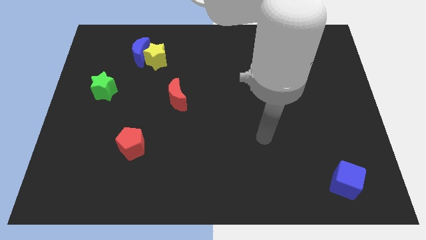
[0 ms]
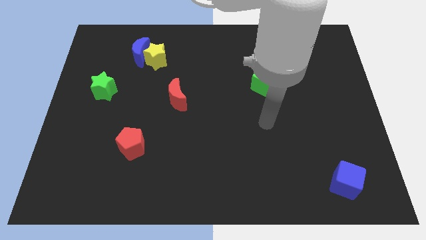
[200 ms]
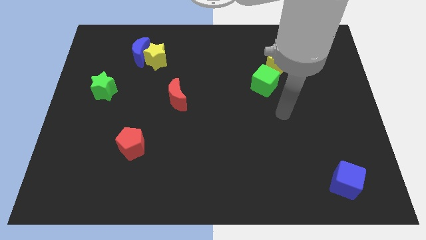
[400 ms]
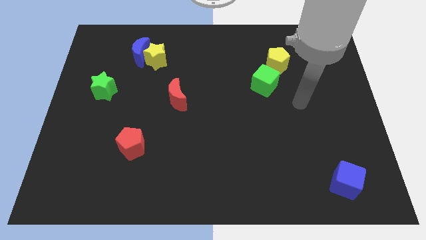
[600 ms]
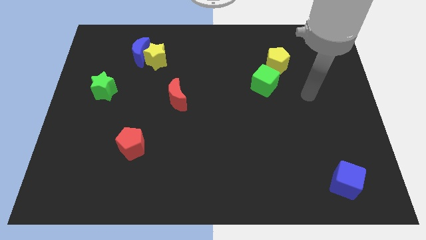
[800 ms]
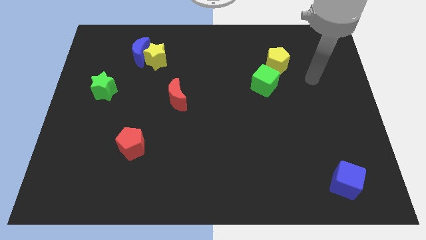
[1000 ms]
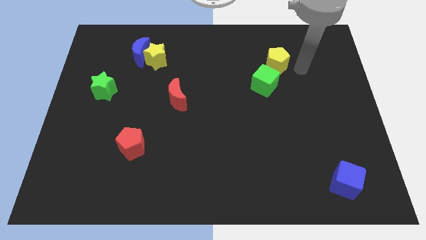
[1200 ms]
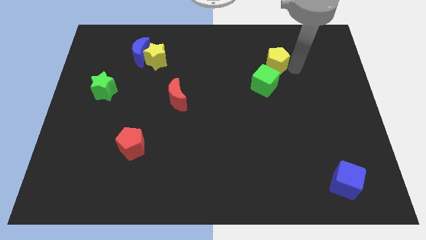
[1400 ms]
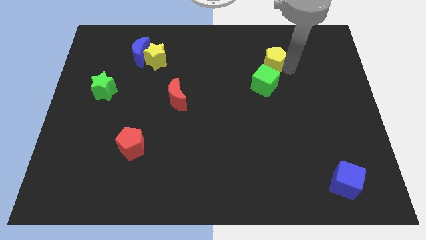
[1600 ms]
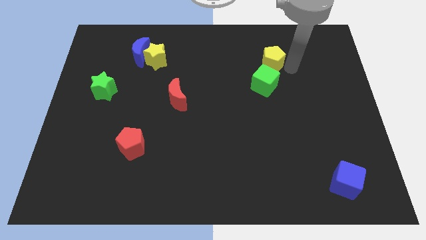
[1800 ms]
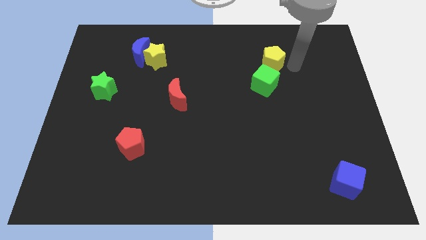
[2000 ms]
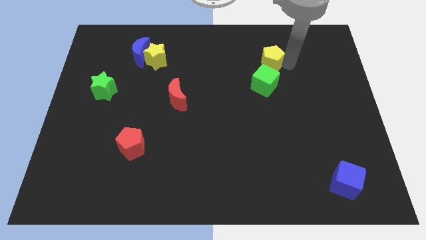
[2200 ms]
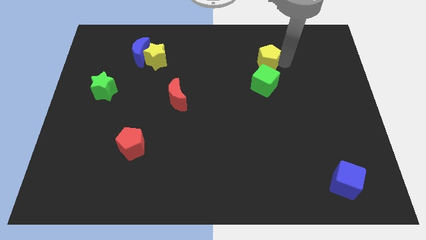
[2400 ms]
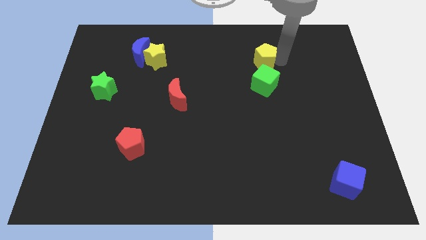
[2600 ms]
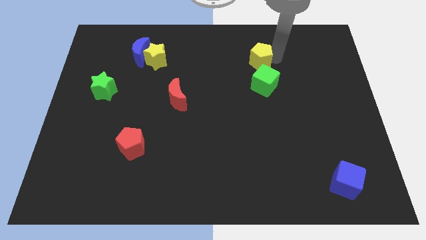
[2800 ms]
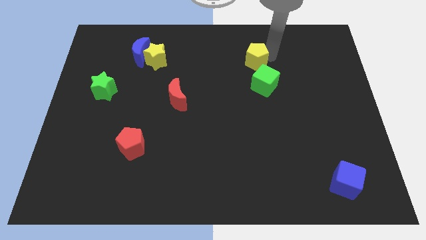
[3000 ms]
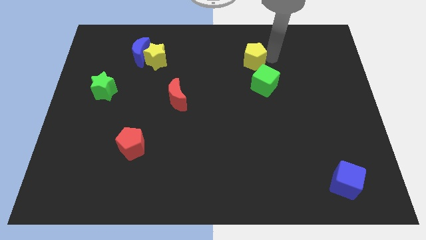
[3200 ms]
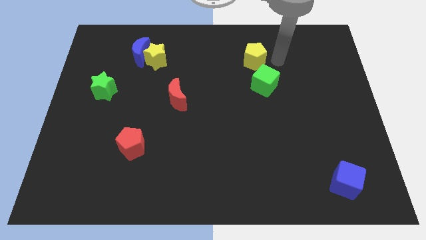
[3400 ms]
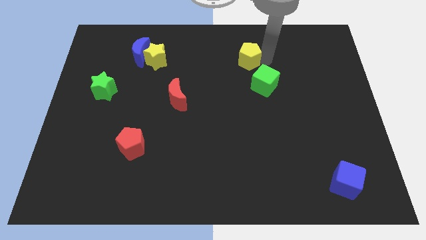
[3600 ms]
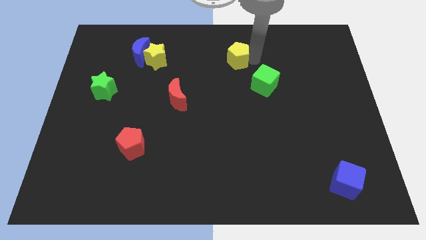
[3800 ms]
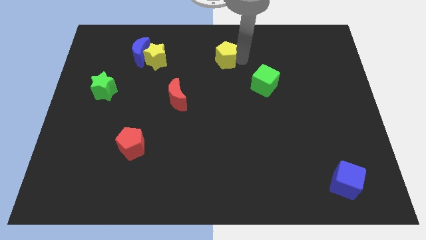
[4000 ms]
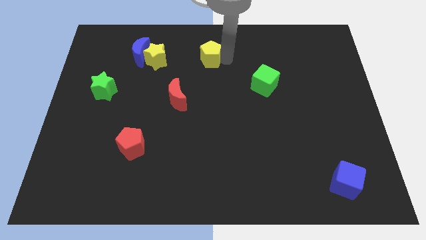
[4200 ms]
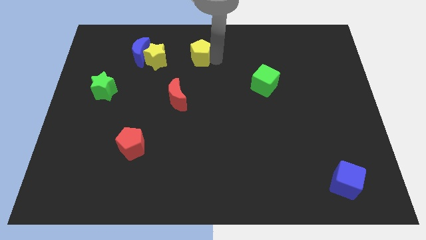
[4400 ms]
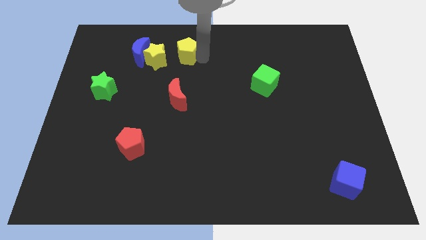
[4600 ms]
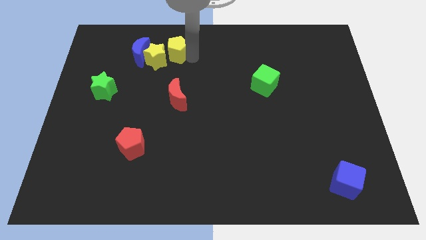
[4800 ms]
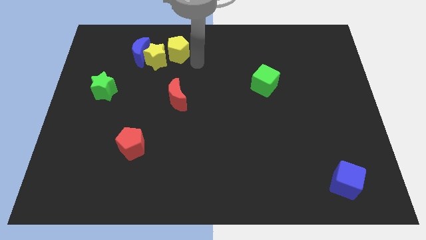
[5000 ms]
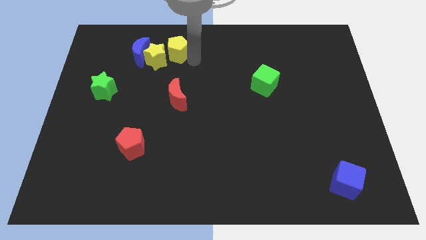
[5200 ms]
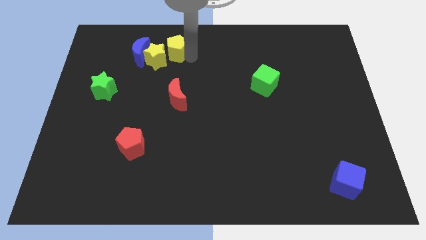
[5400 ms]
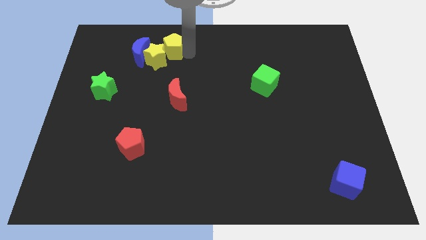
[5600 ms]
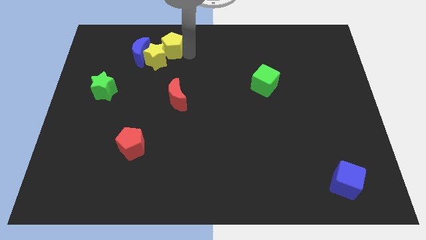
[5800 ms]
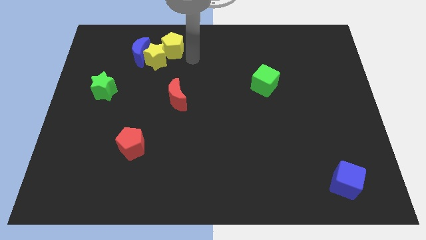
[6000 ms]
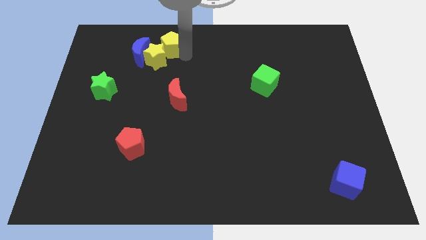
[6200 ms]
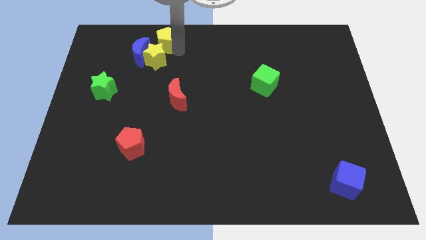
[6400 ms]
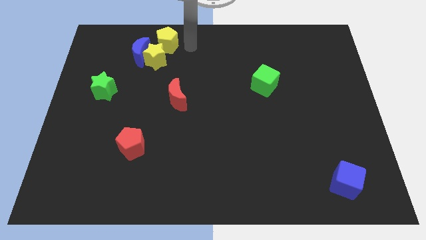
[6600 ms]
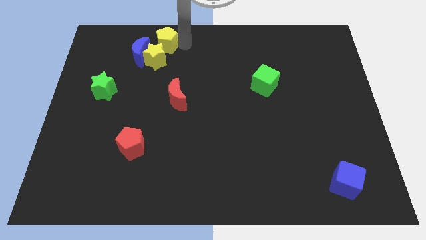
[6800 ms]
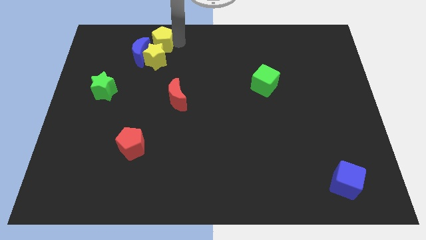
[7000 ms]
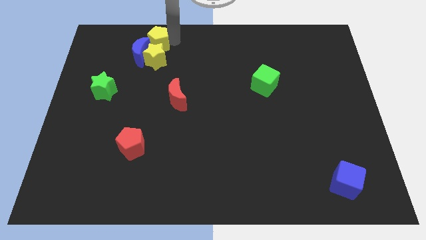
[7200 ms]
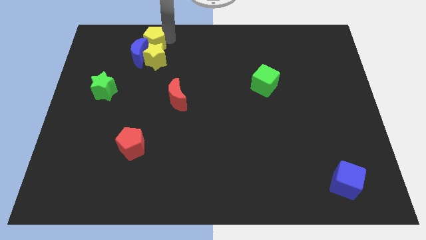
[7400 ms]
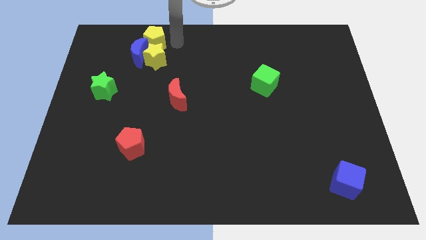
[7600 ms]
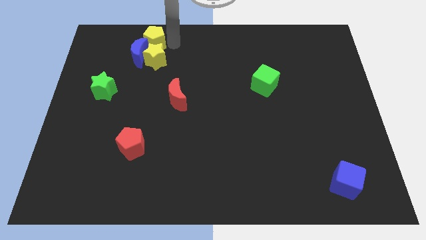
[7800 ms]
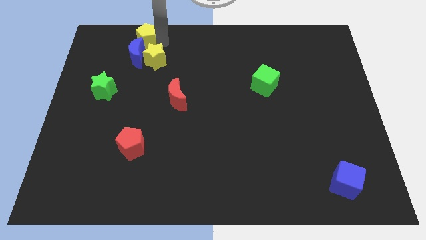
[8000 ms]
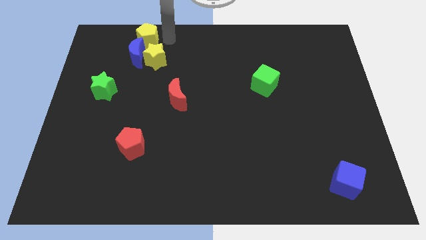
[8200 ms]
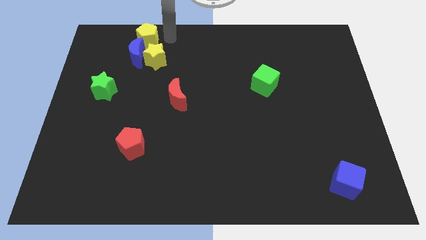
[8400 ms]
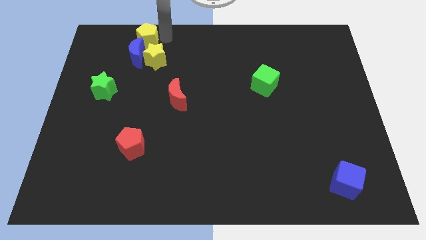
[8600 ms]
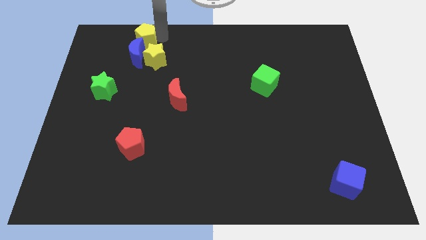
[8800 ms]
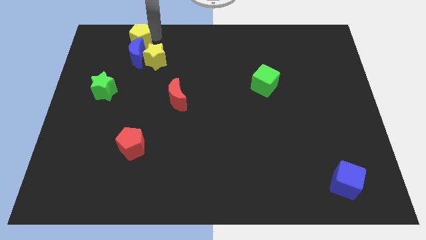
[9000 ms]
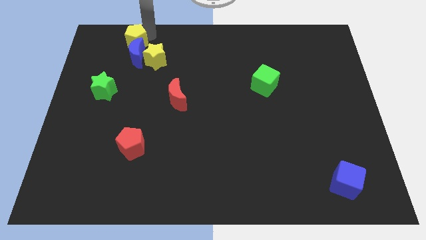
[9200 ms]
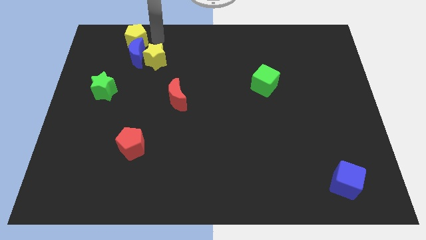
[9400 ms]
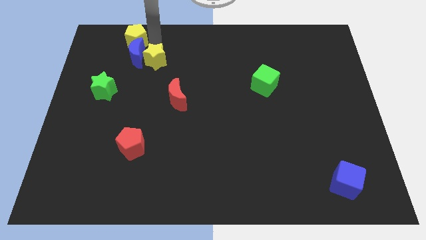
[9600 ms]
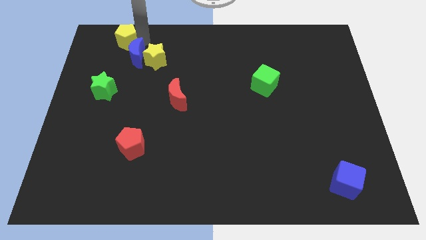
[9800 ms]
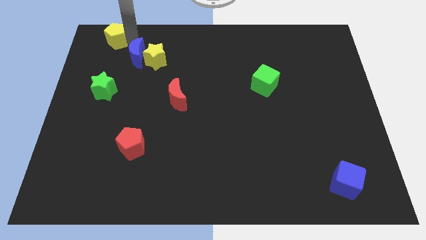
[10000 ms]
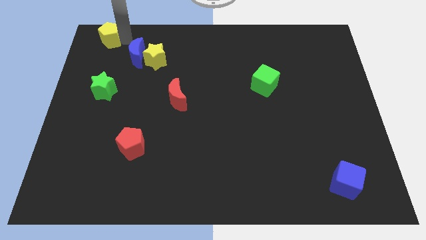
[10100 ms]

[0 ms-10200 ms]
push the yellow pentagon to the top left corner
